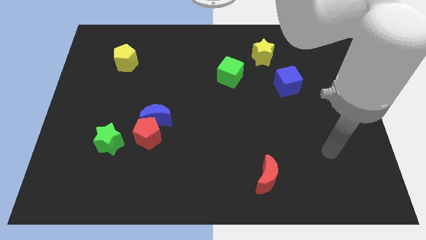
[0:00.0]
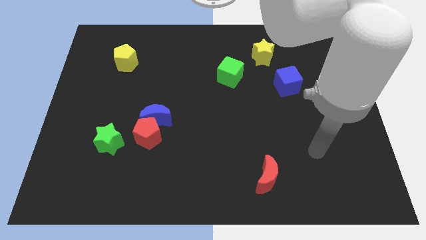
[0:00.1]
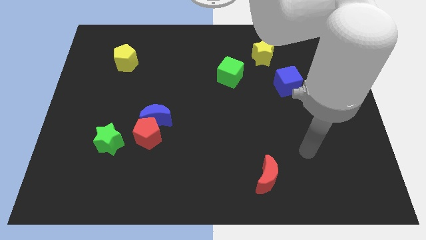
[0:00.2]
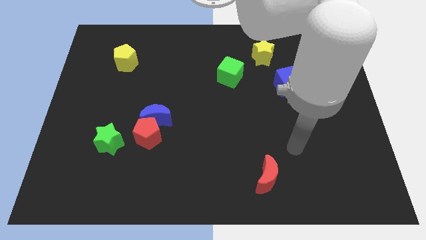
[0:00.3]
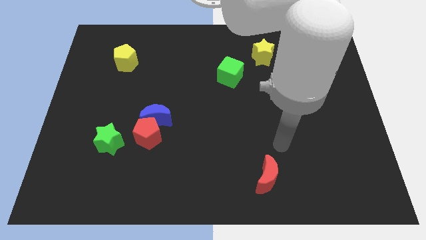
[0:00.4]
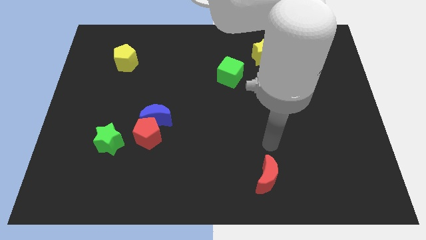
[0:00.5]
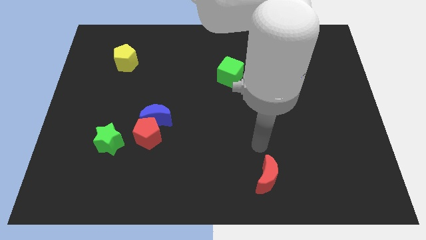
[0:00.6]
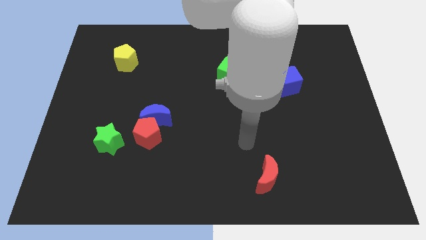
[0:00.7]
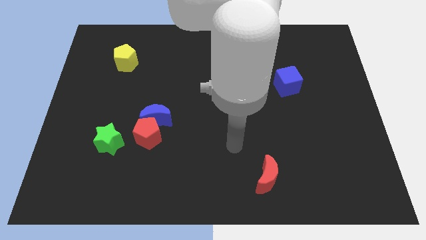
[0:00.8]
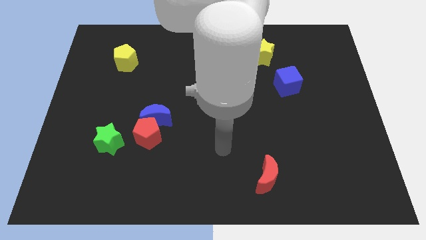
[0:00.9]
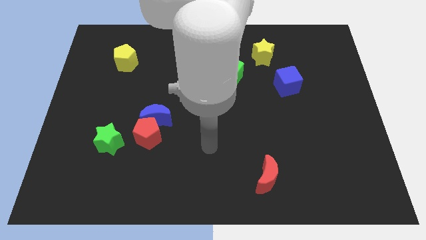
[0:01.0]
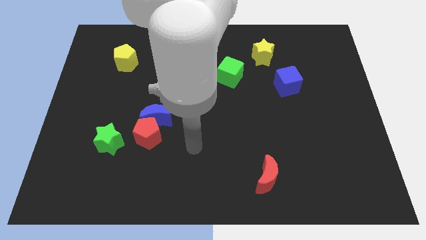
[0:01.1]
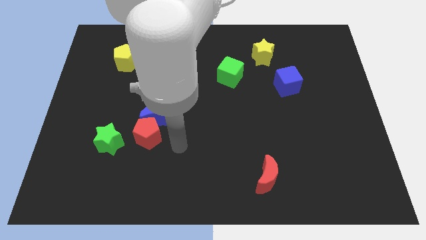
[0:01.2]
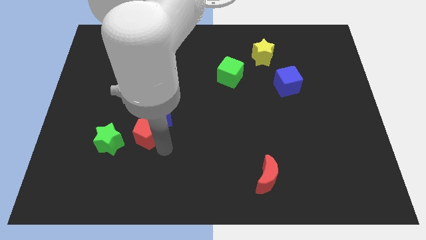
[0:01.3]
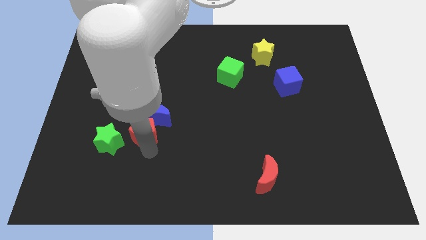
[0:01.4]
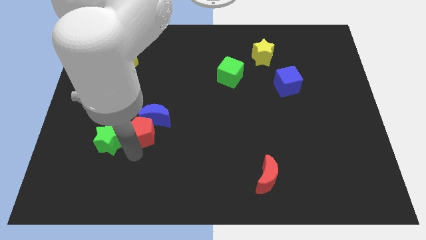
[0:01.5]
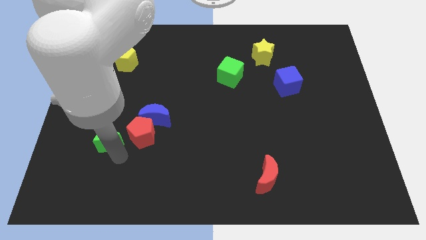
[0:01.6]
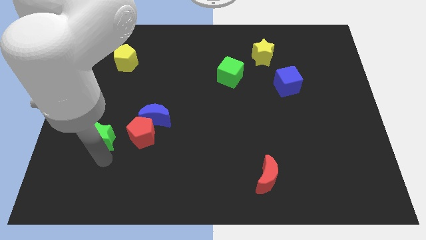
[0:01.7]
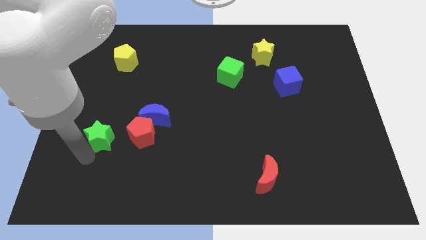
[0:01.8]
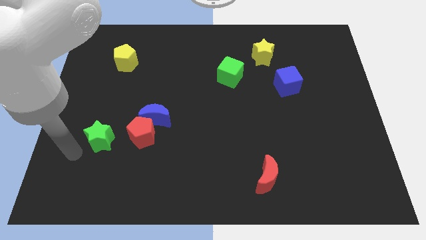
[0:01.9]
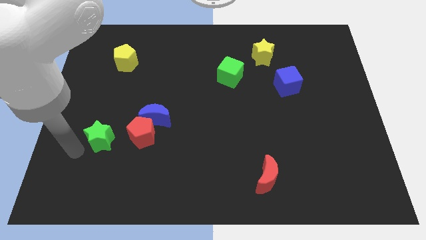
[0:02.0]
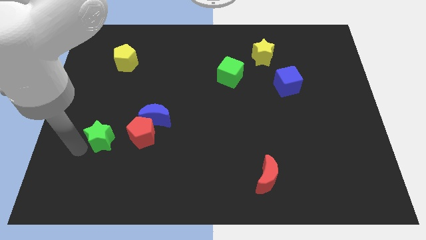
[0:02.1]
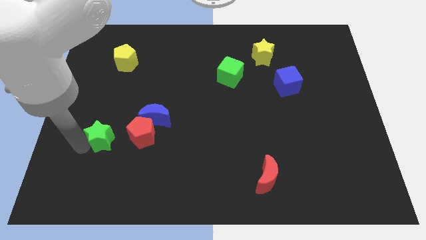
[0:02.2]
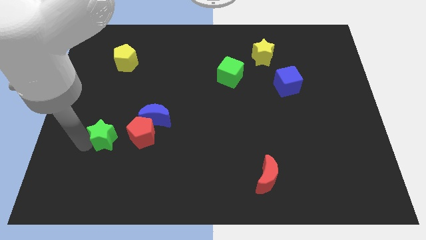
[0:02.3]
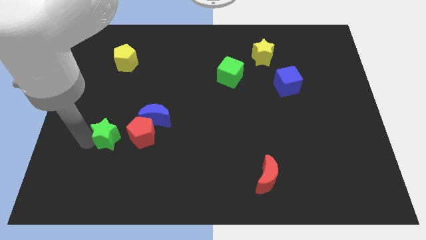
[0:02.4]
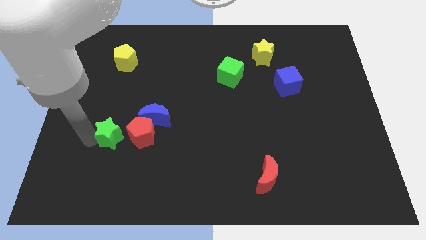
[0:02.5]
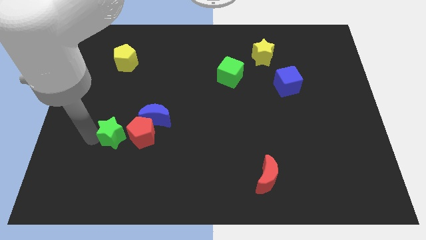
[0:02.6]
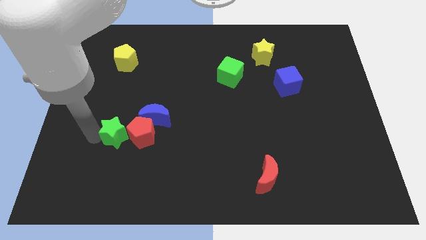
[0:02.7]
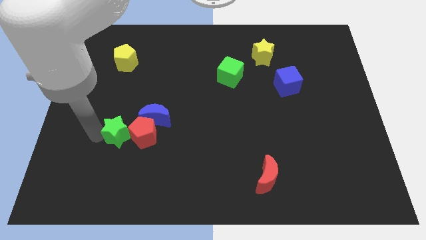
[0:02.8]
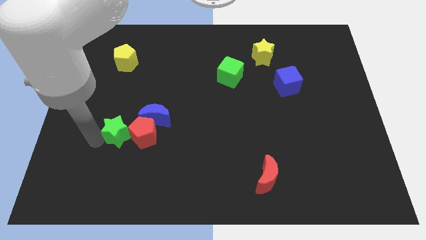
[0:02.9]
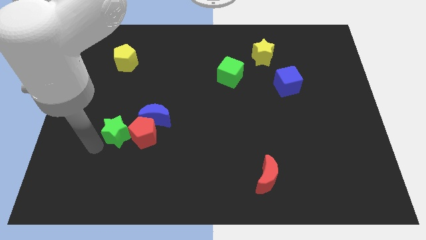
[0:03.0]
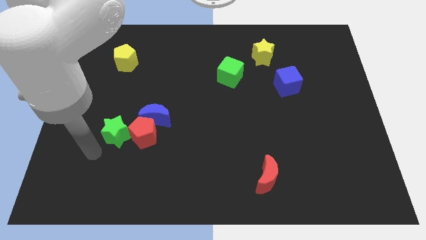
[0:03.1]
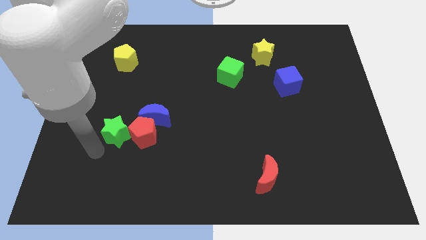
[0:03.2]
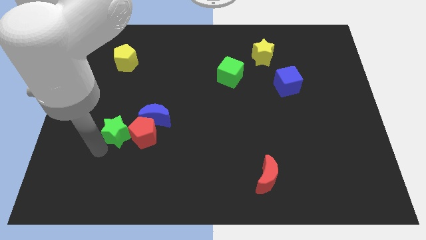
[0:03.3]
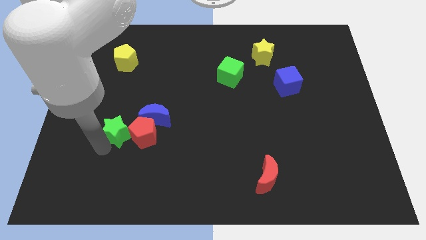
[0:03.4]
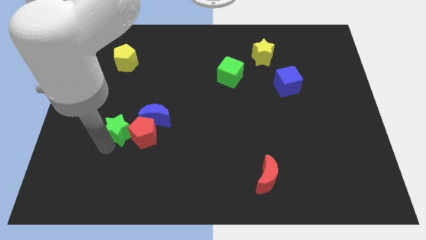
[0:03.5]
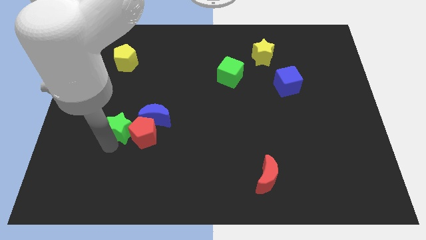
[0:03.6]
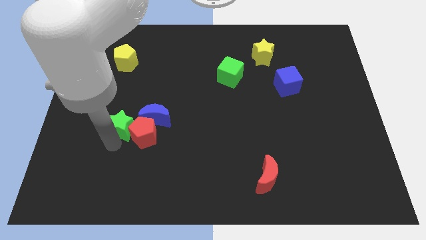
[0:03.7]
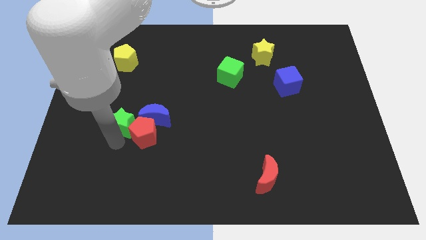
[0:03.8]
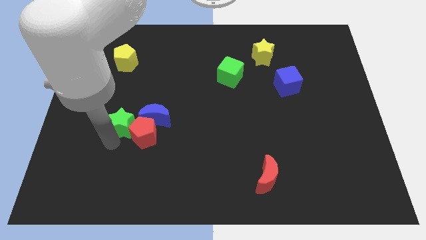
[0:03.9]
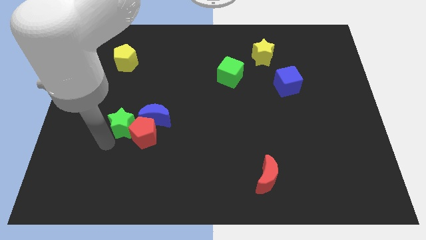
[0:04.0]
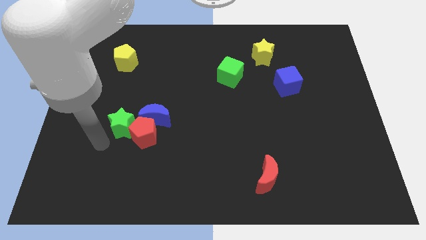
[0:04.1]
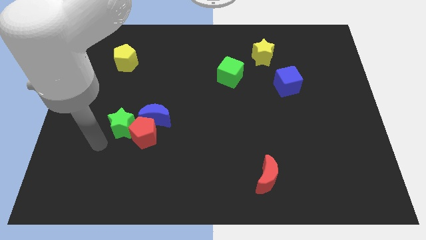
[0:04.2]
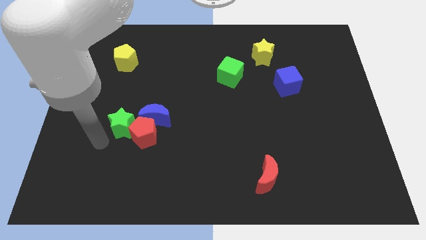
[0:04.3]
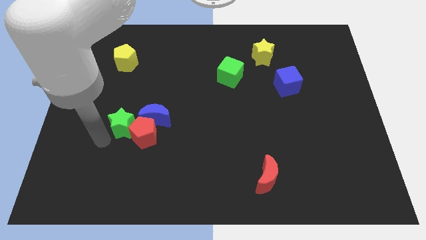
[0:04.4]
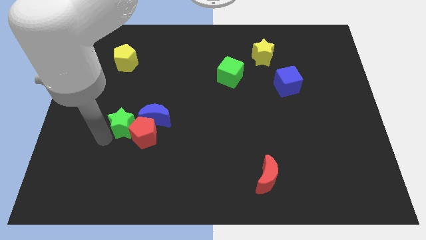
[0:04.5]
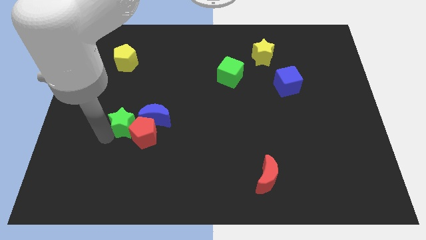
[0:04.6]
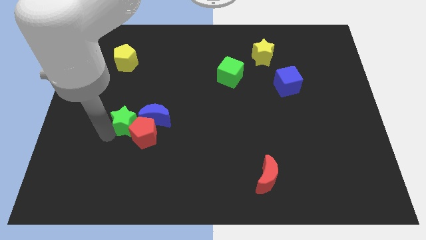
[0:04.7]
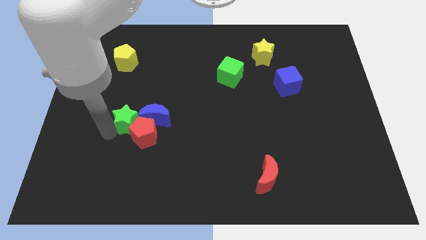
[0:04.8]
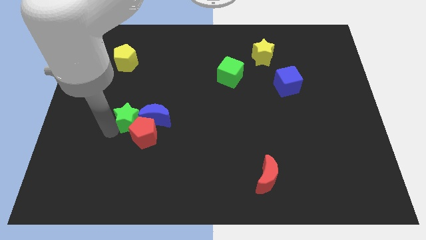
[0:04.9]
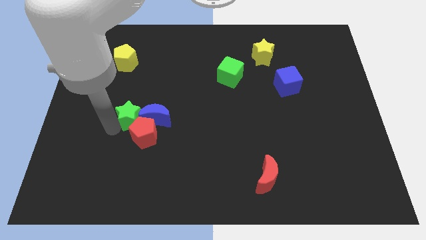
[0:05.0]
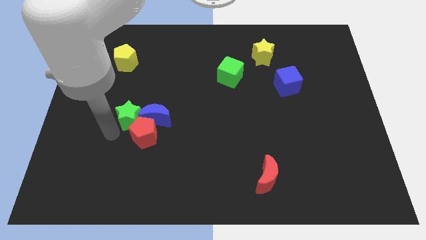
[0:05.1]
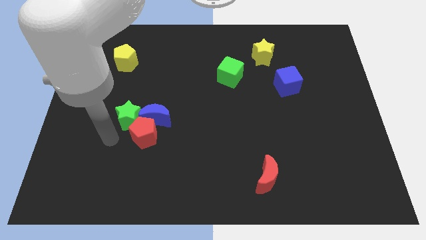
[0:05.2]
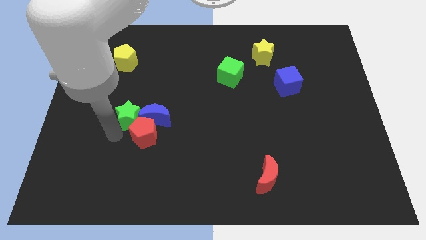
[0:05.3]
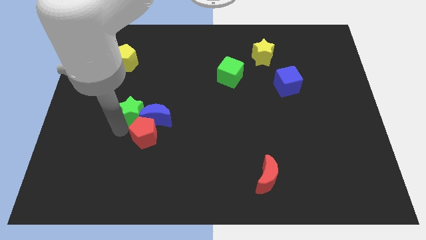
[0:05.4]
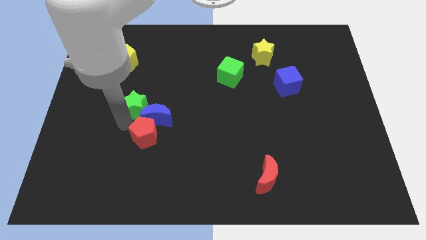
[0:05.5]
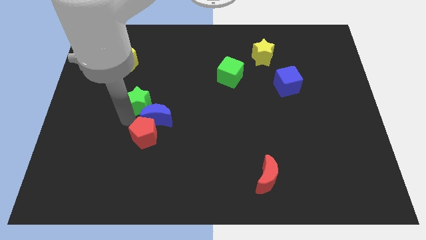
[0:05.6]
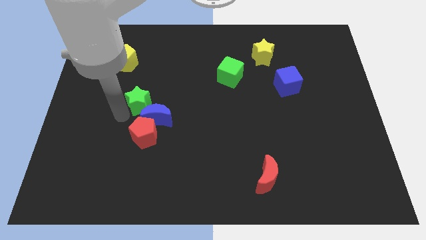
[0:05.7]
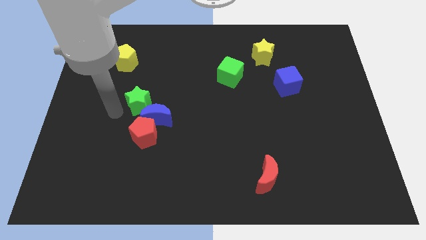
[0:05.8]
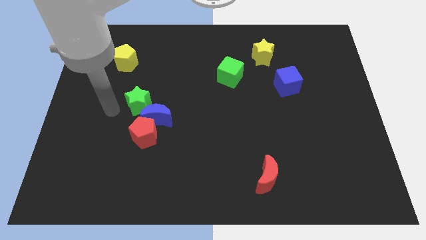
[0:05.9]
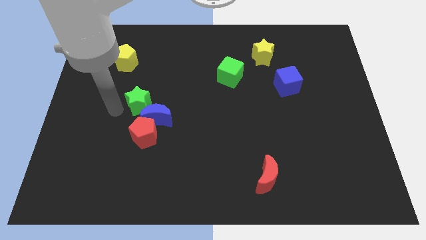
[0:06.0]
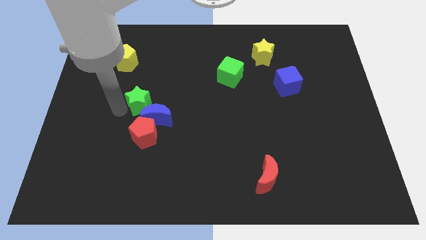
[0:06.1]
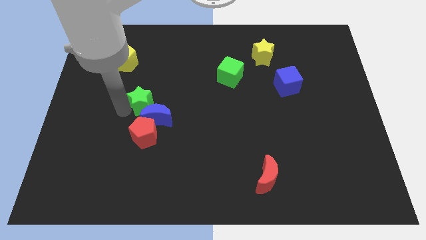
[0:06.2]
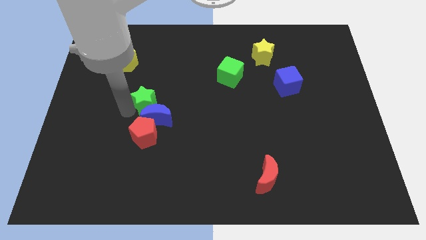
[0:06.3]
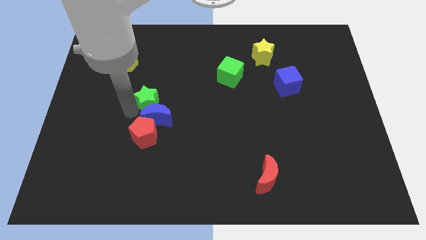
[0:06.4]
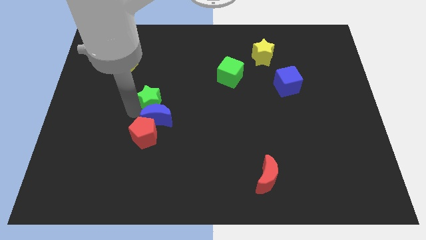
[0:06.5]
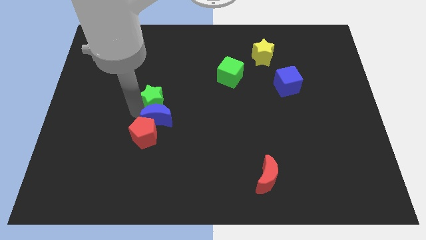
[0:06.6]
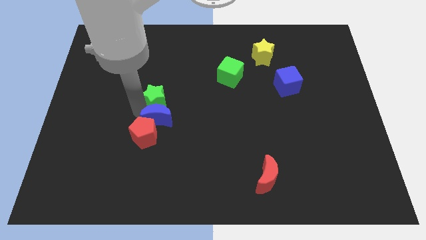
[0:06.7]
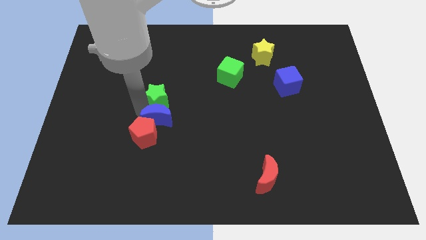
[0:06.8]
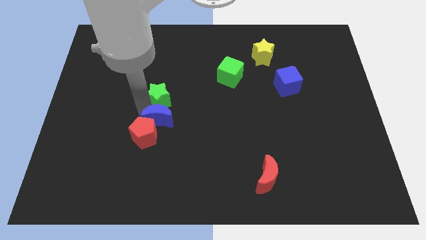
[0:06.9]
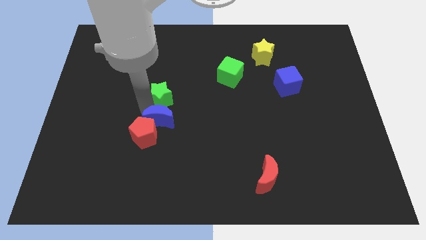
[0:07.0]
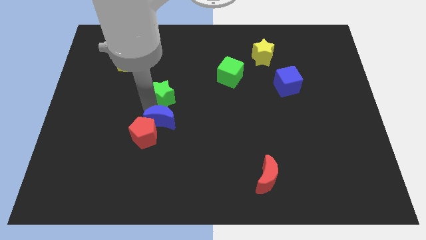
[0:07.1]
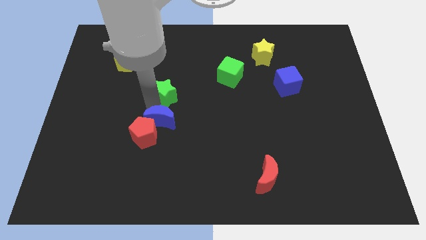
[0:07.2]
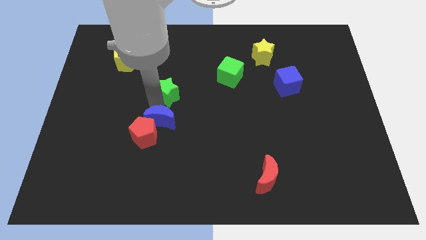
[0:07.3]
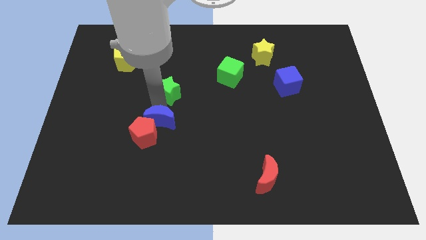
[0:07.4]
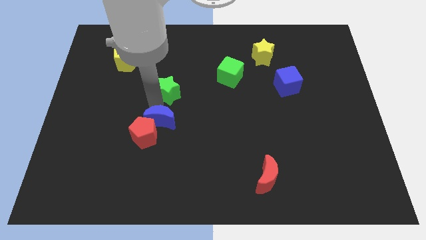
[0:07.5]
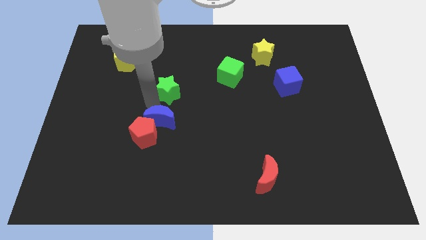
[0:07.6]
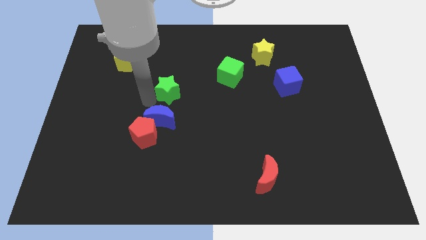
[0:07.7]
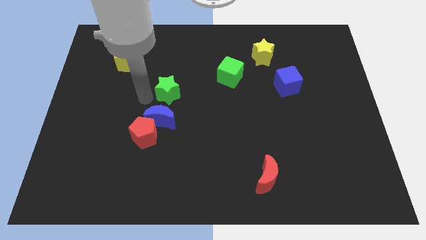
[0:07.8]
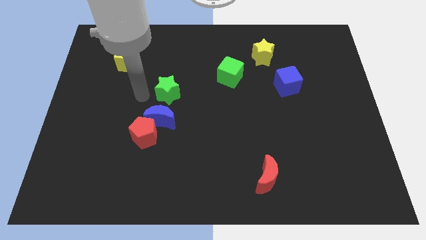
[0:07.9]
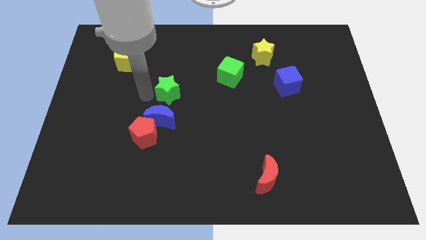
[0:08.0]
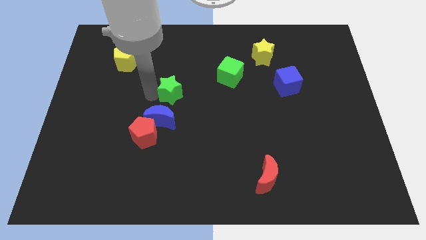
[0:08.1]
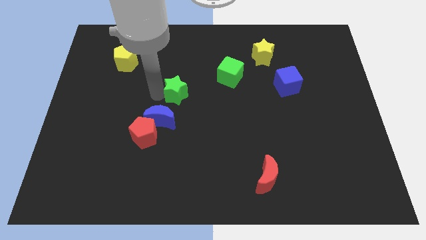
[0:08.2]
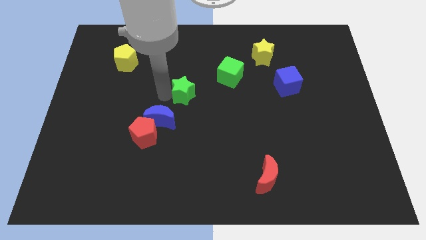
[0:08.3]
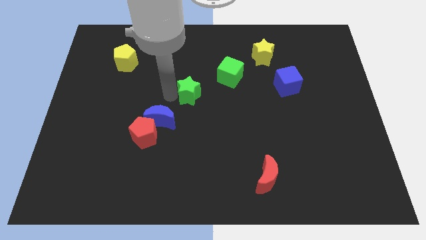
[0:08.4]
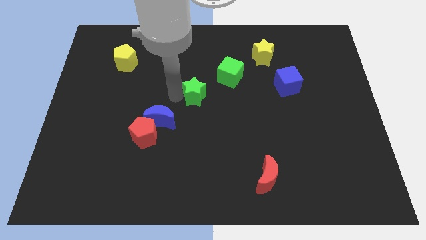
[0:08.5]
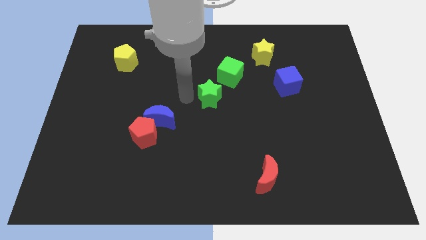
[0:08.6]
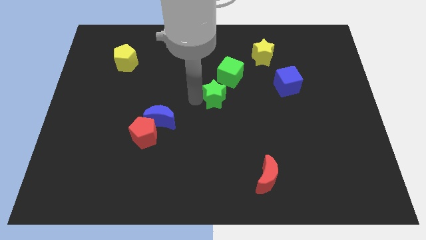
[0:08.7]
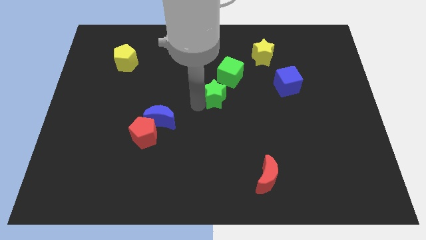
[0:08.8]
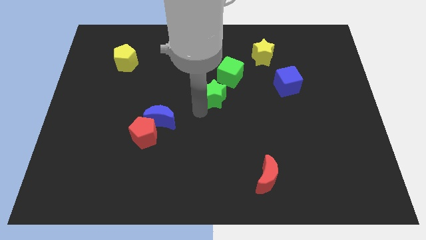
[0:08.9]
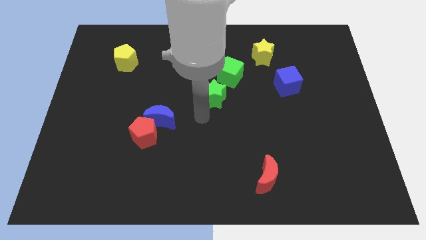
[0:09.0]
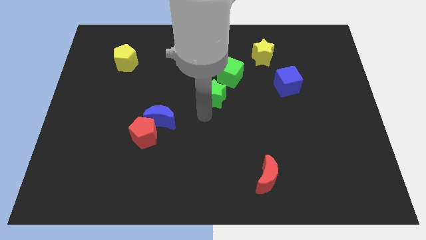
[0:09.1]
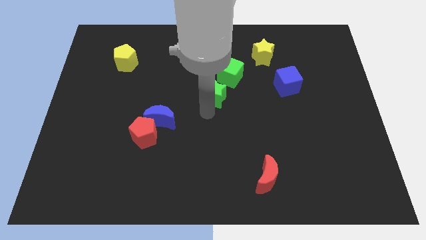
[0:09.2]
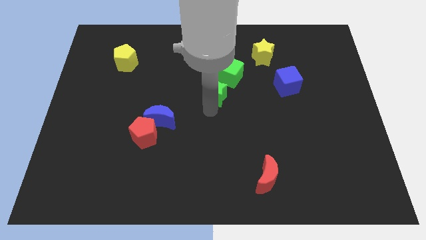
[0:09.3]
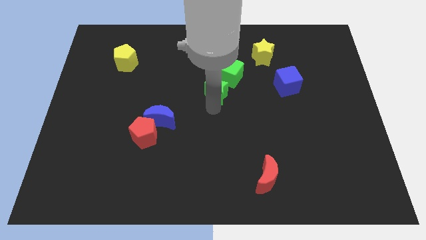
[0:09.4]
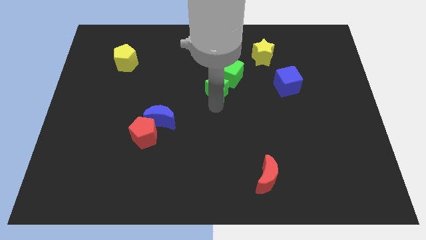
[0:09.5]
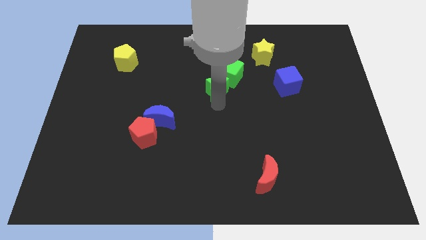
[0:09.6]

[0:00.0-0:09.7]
slide the green star towards the green cube
